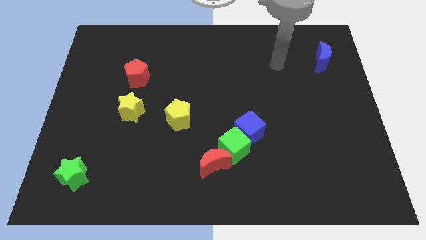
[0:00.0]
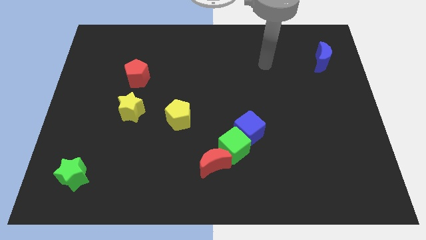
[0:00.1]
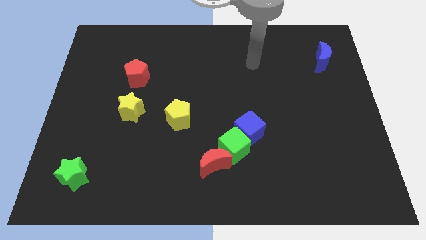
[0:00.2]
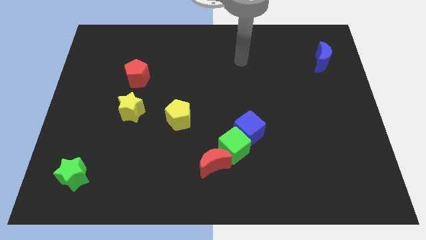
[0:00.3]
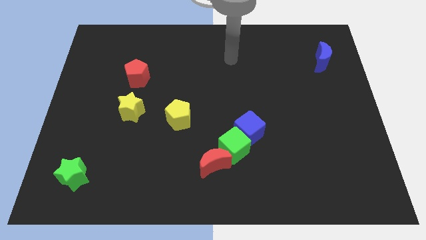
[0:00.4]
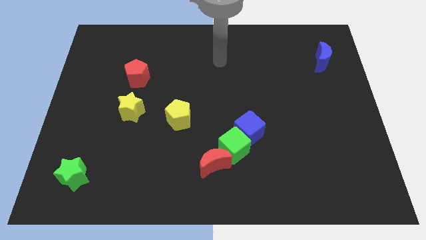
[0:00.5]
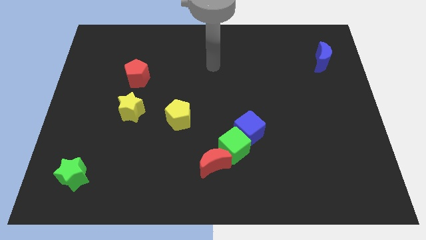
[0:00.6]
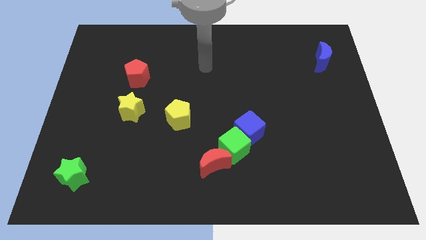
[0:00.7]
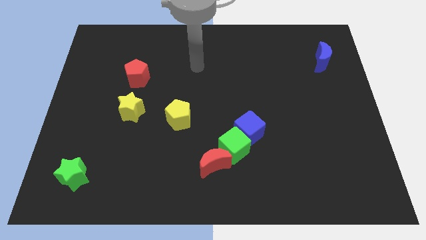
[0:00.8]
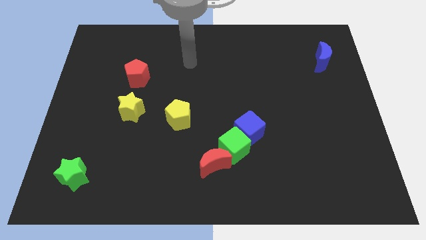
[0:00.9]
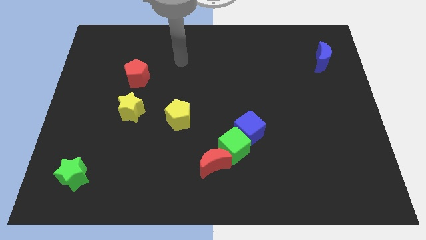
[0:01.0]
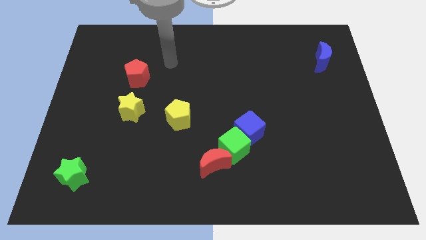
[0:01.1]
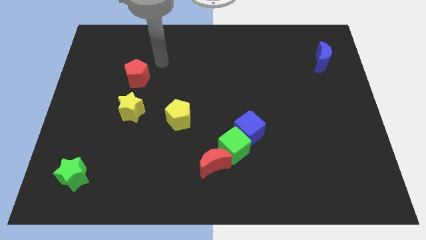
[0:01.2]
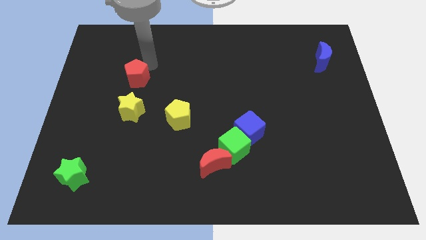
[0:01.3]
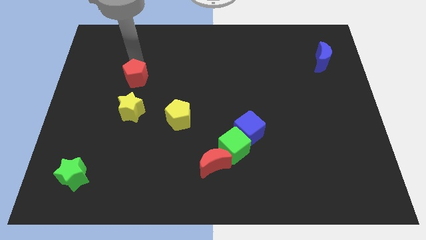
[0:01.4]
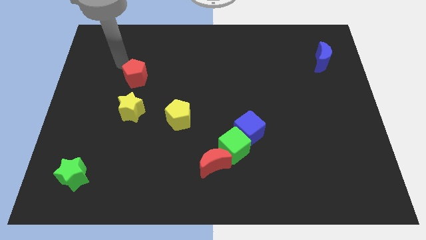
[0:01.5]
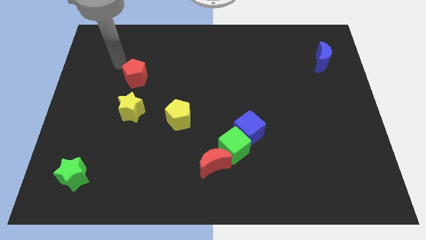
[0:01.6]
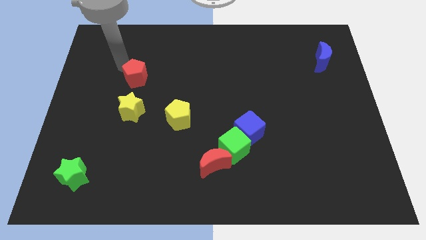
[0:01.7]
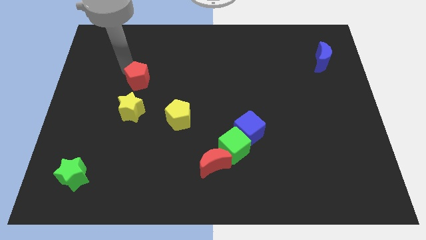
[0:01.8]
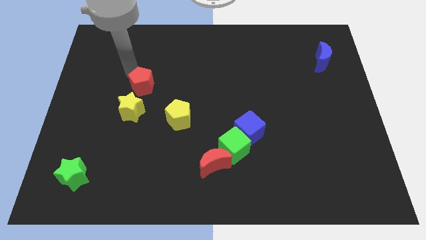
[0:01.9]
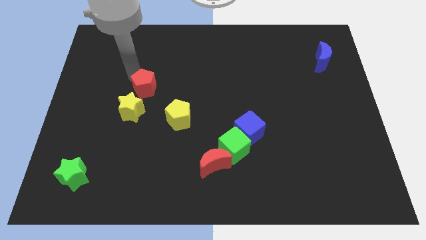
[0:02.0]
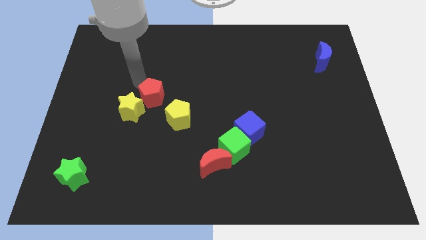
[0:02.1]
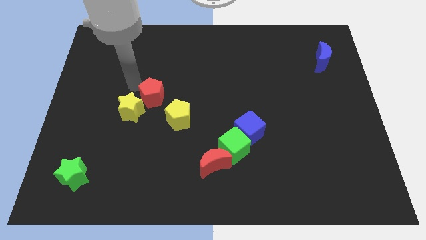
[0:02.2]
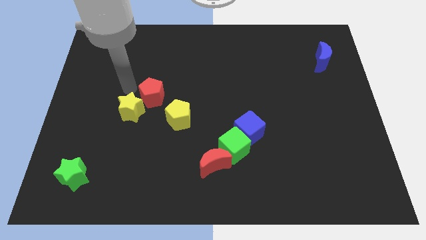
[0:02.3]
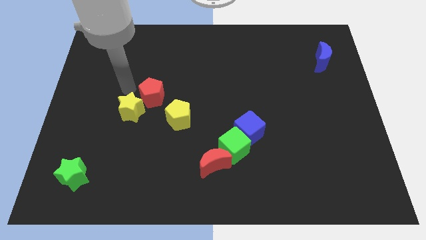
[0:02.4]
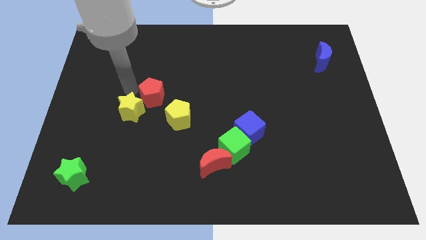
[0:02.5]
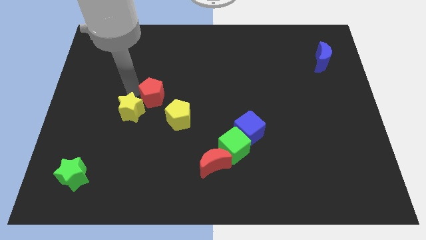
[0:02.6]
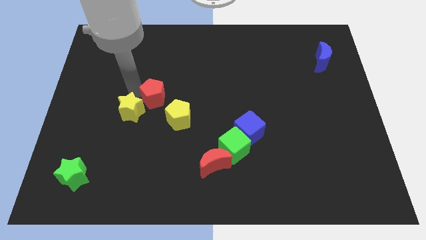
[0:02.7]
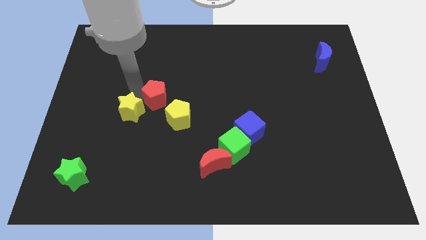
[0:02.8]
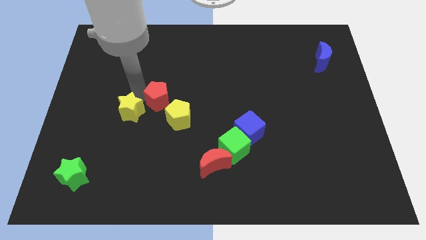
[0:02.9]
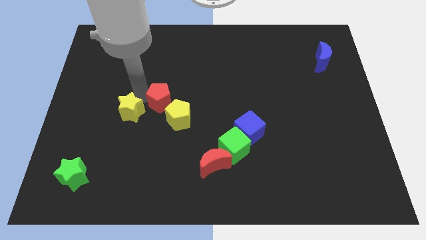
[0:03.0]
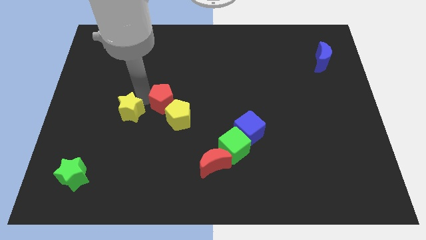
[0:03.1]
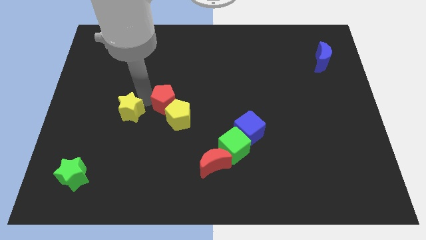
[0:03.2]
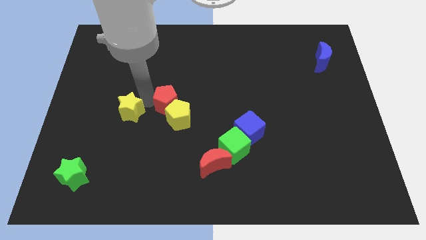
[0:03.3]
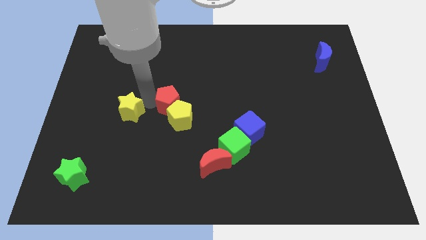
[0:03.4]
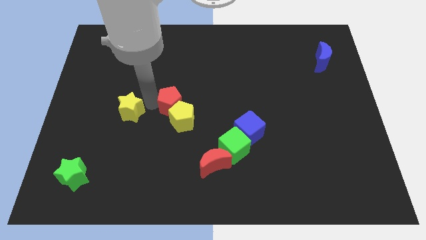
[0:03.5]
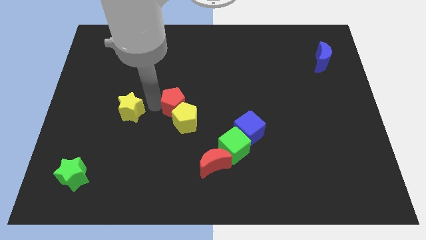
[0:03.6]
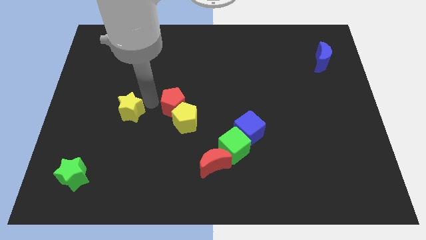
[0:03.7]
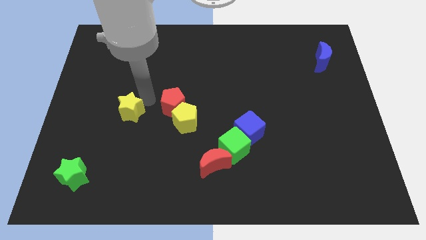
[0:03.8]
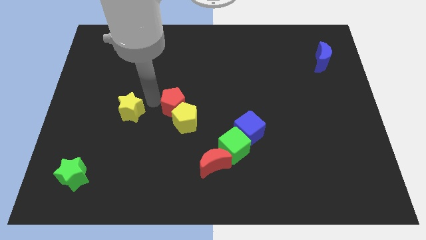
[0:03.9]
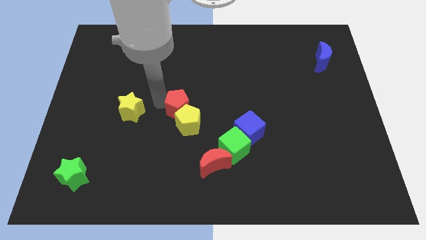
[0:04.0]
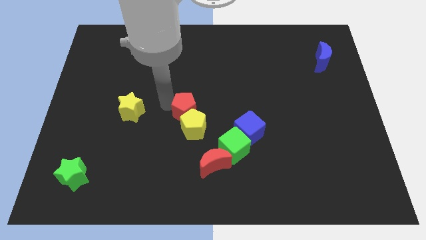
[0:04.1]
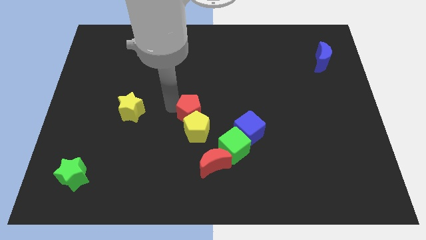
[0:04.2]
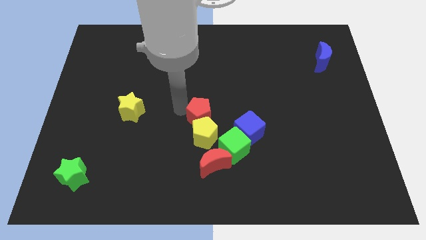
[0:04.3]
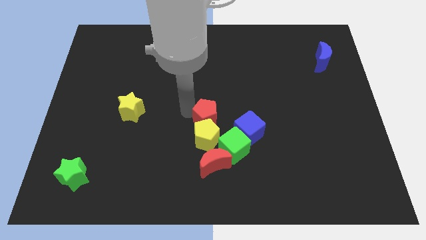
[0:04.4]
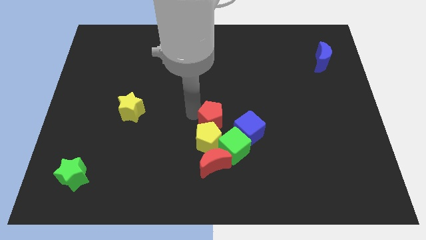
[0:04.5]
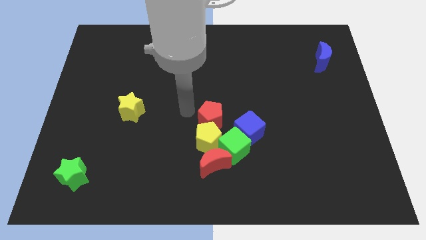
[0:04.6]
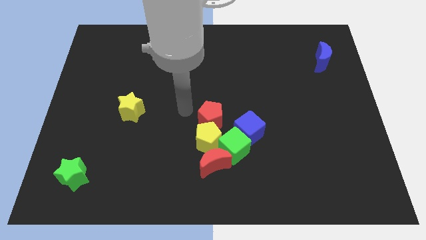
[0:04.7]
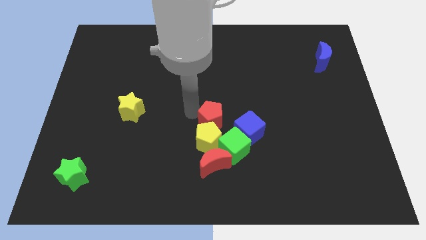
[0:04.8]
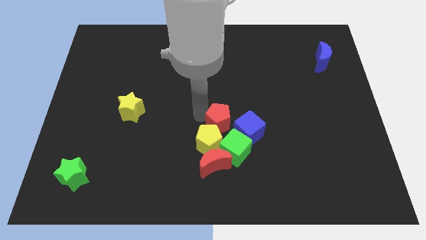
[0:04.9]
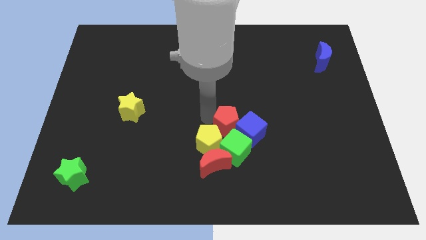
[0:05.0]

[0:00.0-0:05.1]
put the red pentagon close to the blue cube

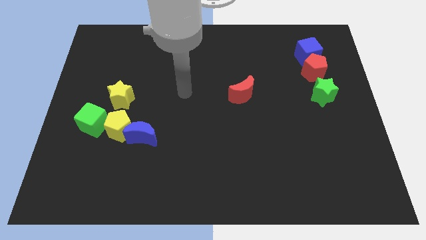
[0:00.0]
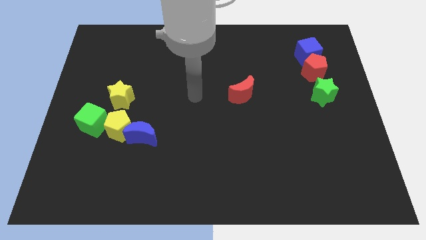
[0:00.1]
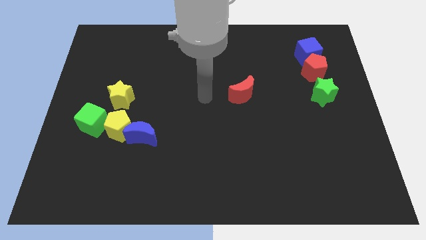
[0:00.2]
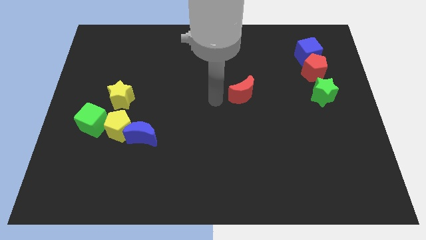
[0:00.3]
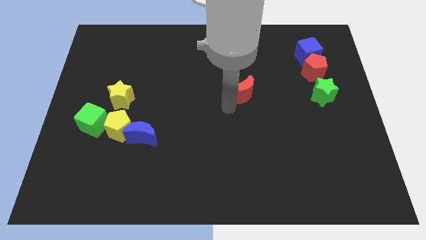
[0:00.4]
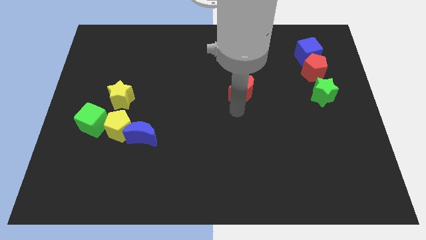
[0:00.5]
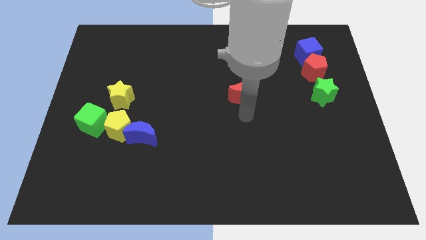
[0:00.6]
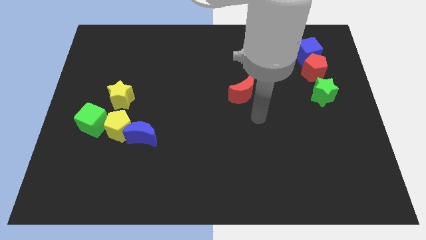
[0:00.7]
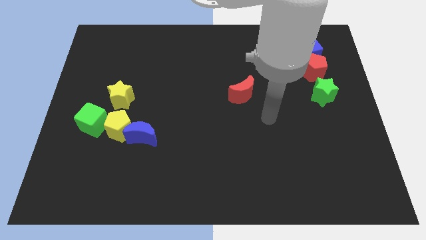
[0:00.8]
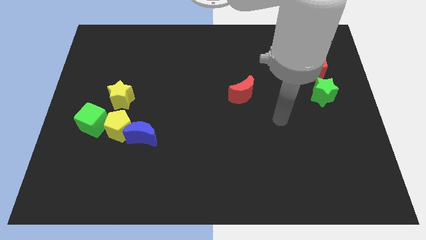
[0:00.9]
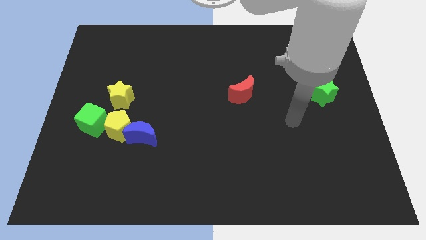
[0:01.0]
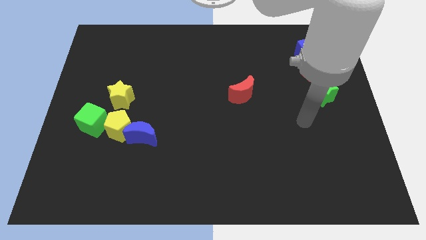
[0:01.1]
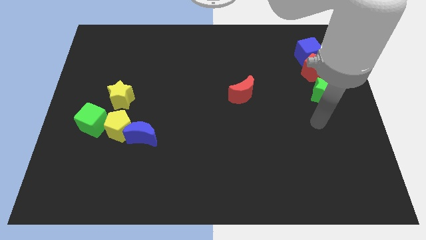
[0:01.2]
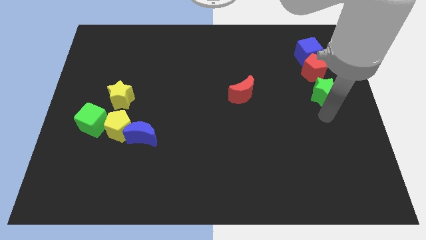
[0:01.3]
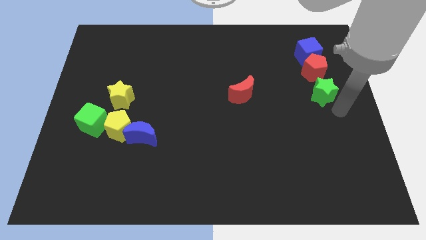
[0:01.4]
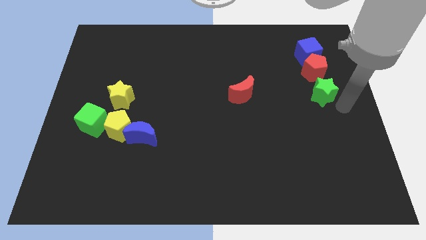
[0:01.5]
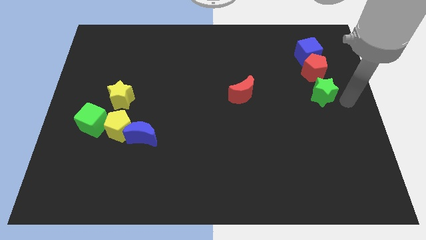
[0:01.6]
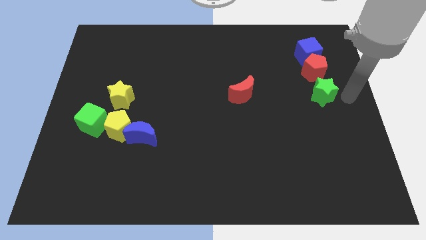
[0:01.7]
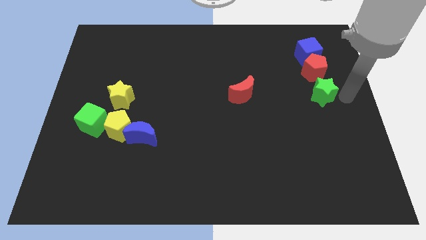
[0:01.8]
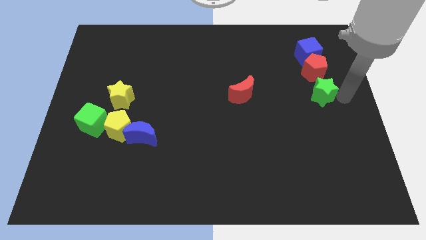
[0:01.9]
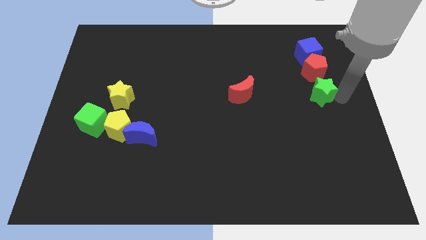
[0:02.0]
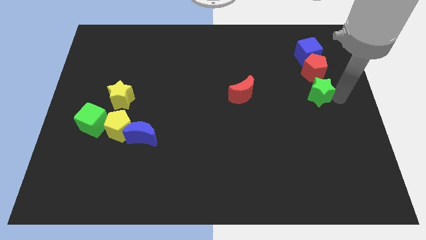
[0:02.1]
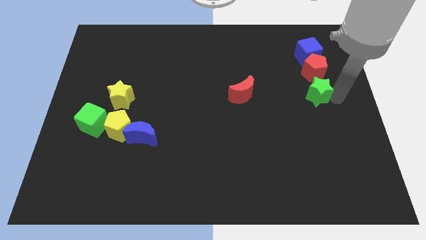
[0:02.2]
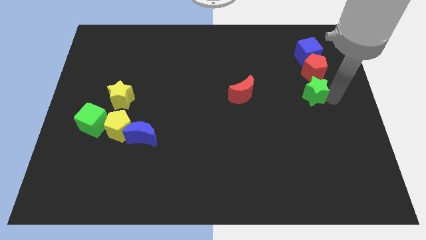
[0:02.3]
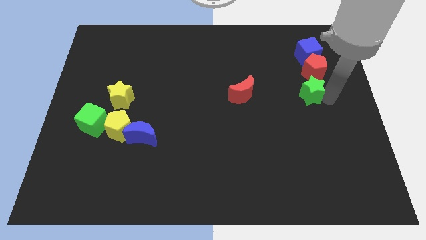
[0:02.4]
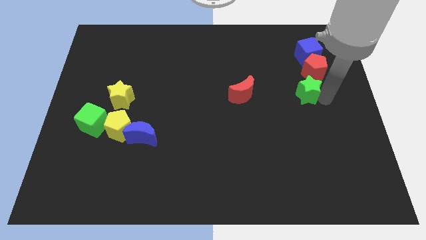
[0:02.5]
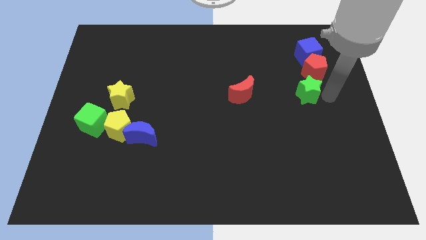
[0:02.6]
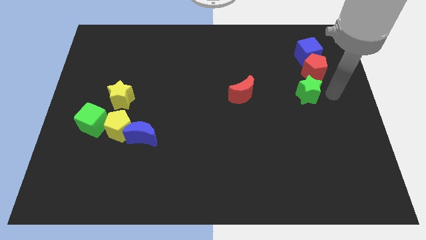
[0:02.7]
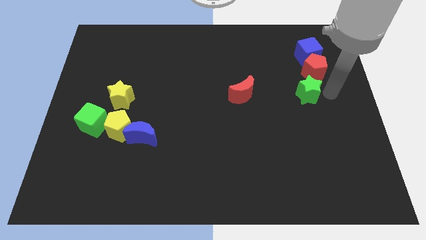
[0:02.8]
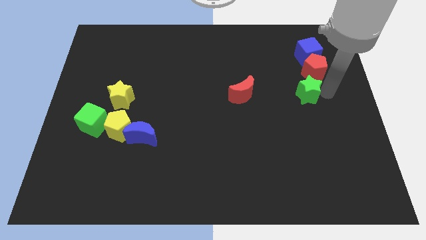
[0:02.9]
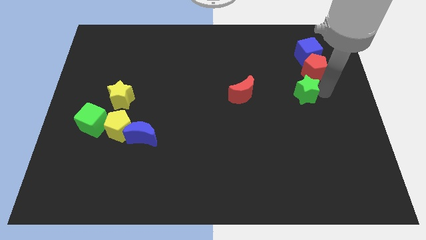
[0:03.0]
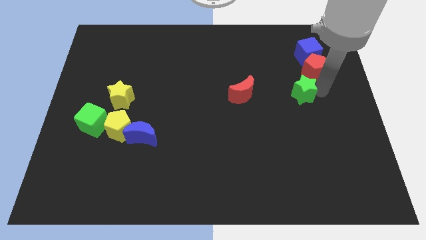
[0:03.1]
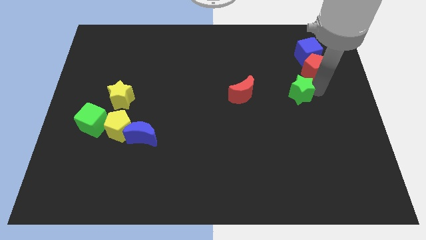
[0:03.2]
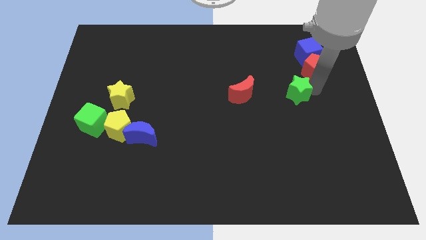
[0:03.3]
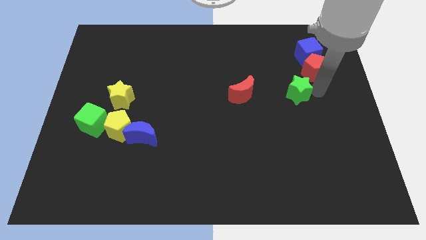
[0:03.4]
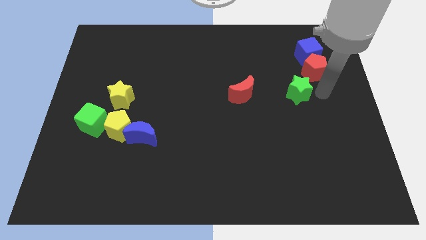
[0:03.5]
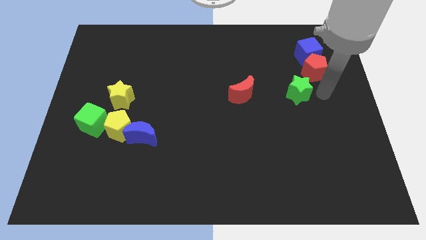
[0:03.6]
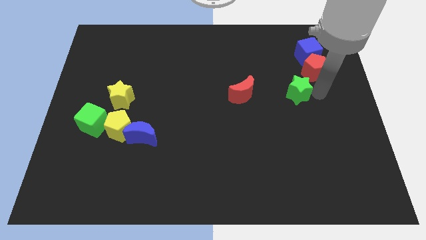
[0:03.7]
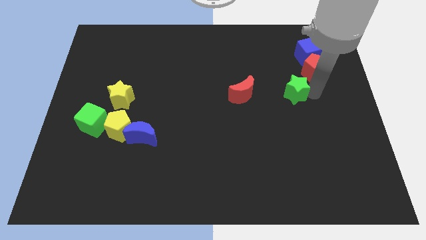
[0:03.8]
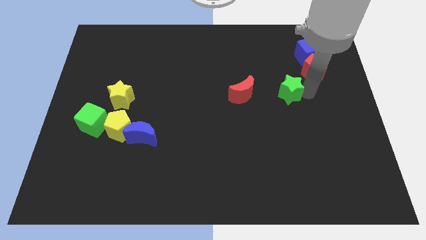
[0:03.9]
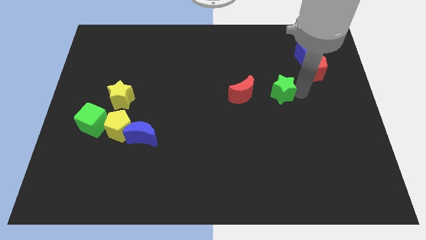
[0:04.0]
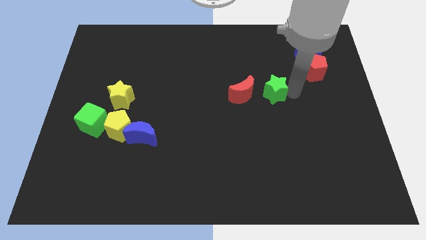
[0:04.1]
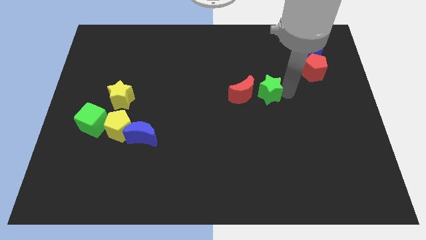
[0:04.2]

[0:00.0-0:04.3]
slide the green star towards the red moon
